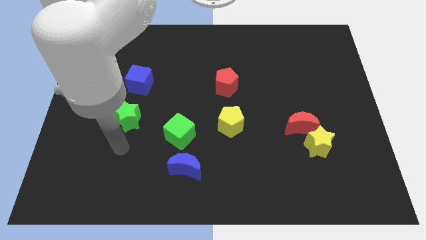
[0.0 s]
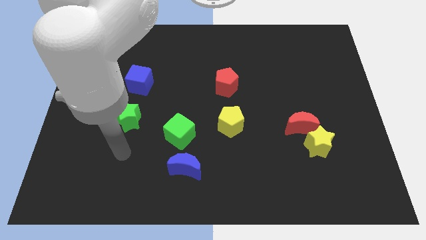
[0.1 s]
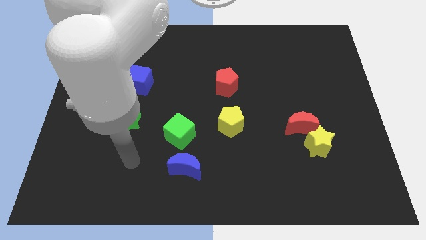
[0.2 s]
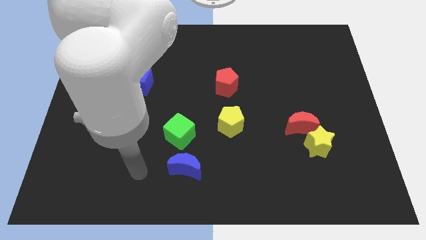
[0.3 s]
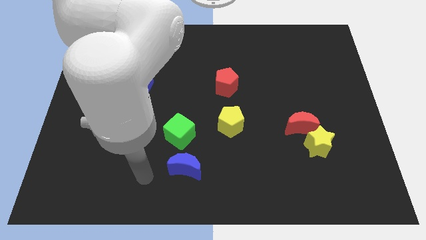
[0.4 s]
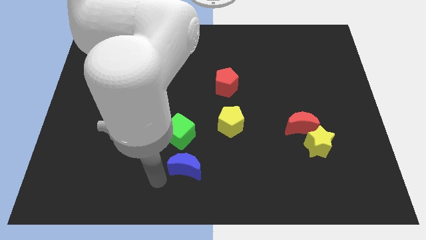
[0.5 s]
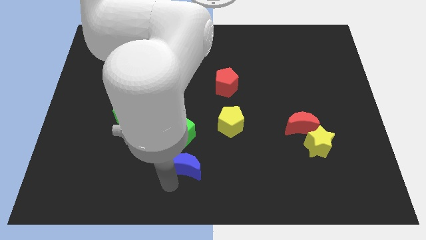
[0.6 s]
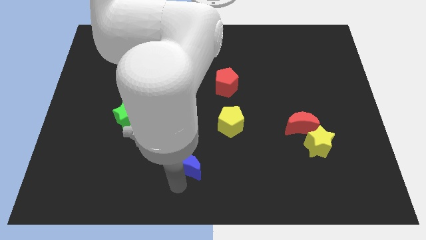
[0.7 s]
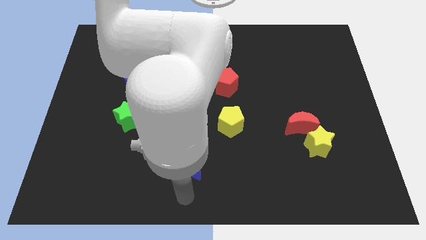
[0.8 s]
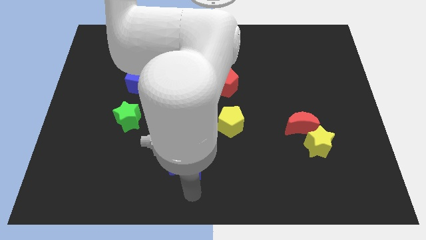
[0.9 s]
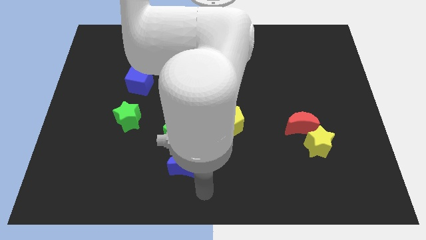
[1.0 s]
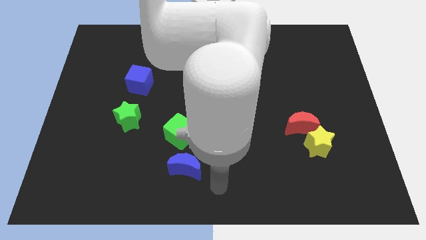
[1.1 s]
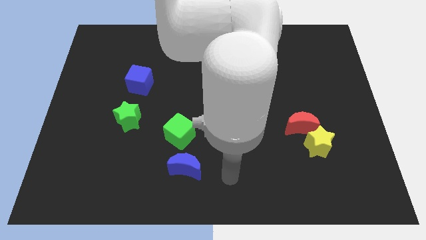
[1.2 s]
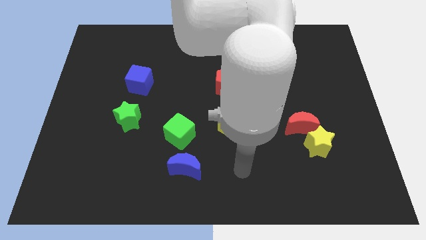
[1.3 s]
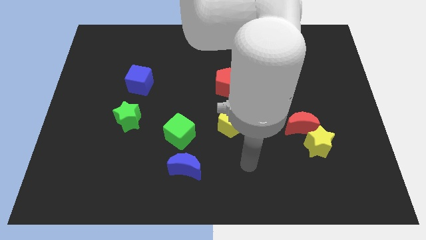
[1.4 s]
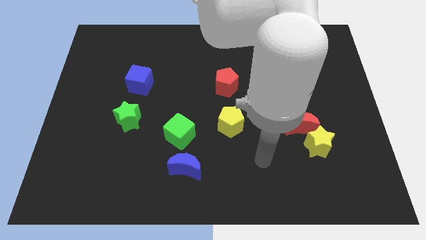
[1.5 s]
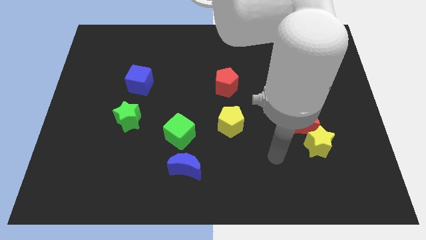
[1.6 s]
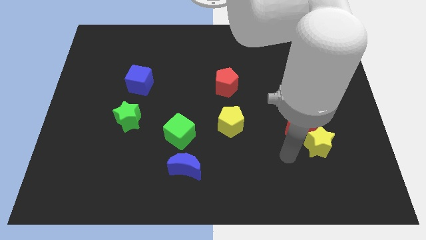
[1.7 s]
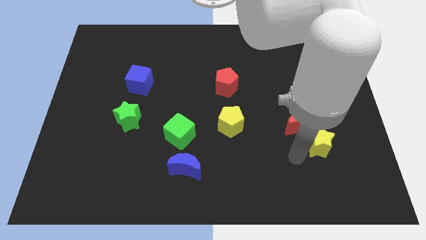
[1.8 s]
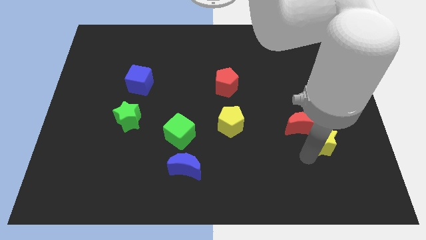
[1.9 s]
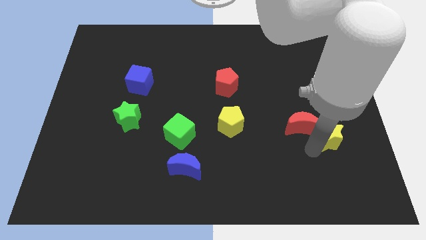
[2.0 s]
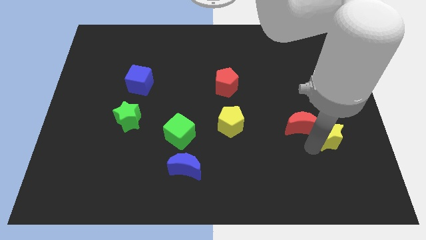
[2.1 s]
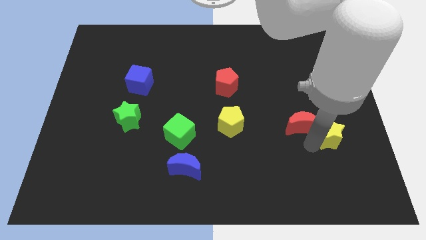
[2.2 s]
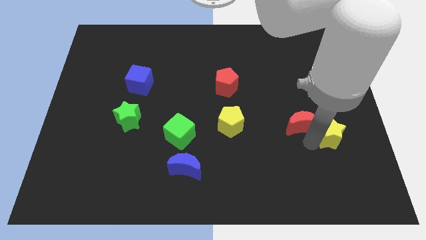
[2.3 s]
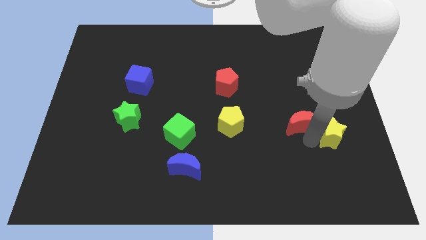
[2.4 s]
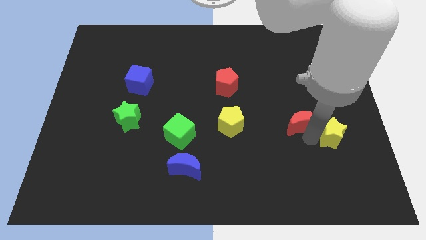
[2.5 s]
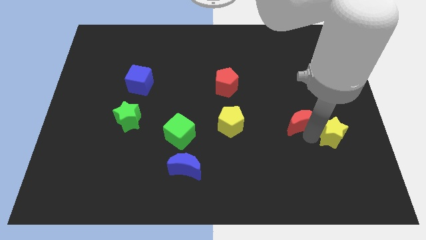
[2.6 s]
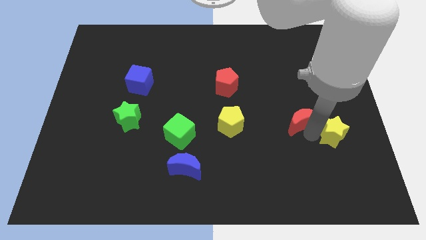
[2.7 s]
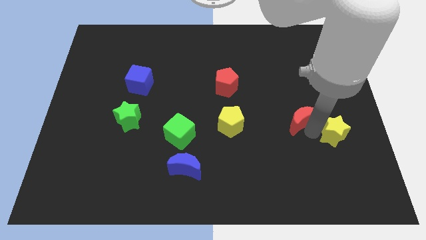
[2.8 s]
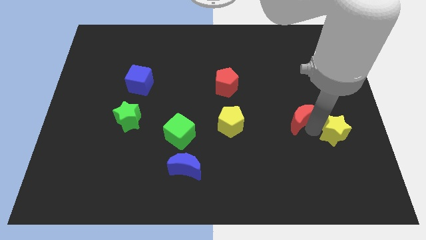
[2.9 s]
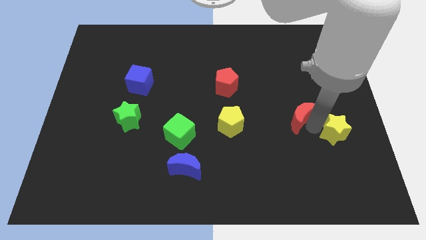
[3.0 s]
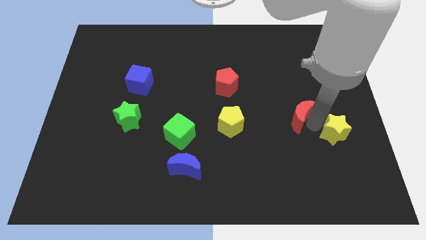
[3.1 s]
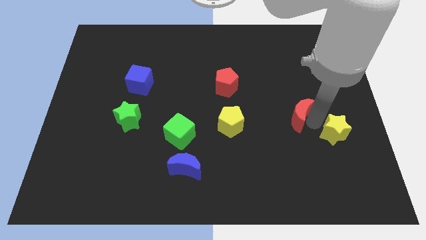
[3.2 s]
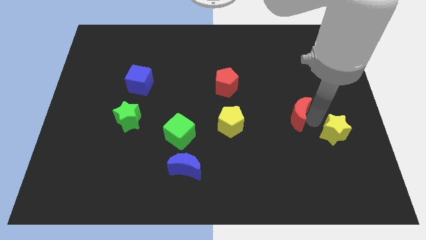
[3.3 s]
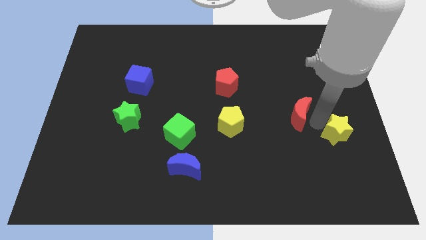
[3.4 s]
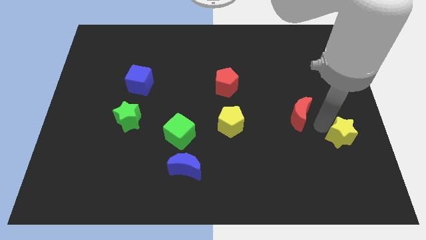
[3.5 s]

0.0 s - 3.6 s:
move the red moon away from the yellow star

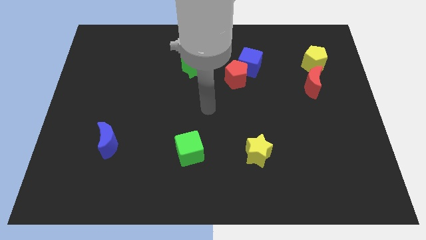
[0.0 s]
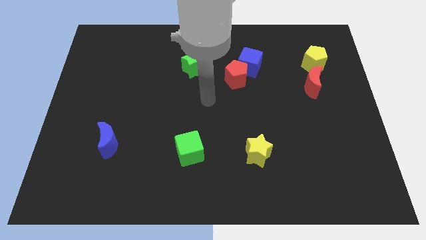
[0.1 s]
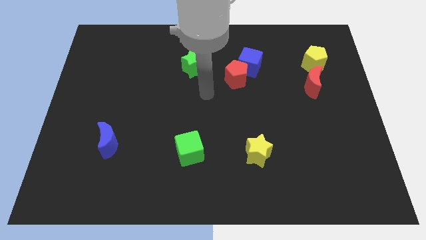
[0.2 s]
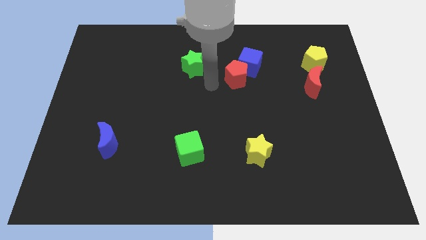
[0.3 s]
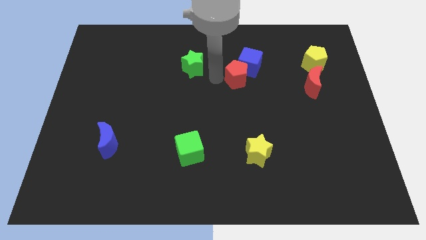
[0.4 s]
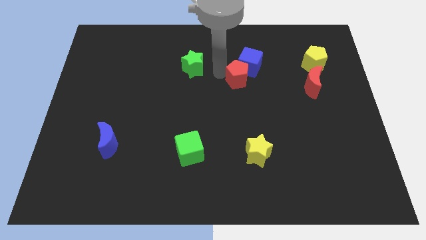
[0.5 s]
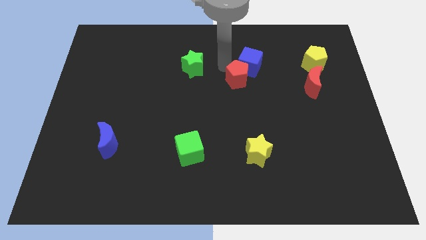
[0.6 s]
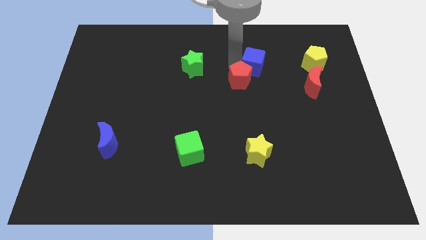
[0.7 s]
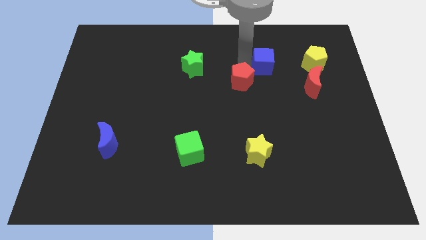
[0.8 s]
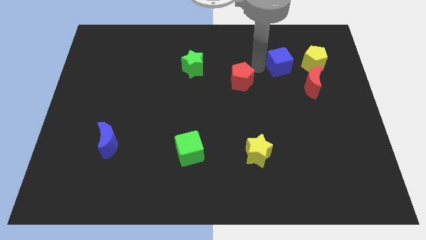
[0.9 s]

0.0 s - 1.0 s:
pull the red pentagon apart from the blue cube

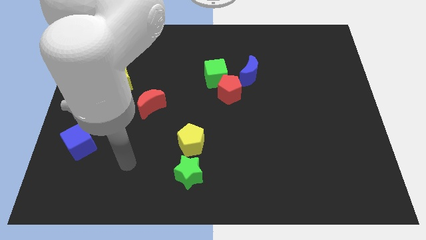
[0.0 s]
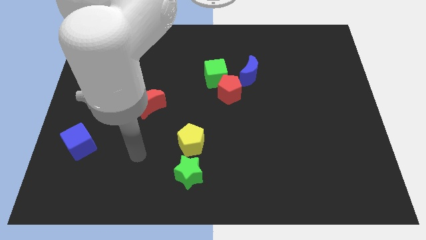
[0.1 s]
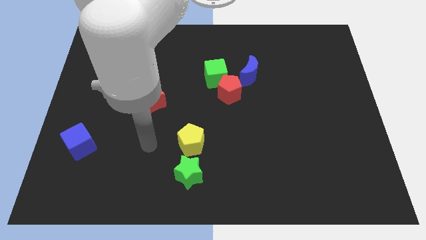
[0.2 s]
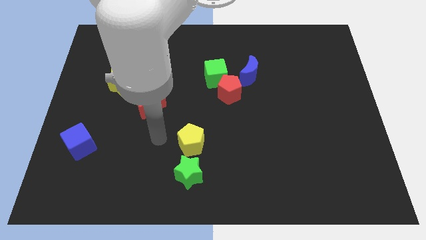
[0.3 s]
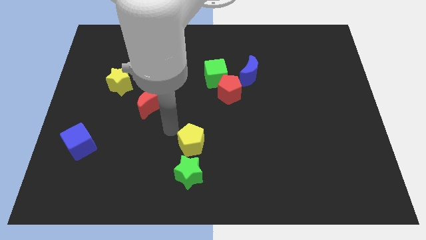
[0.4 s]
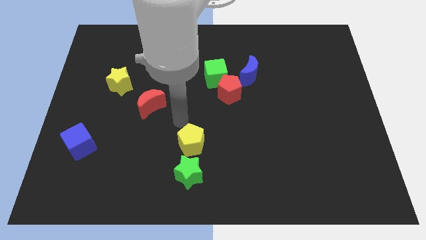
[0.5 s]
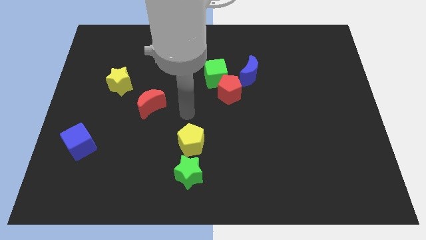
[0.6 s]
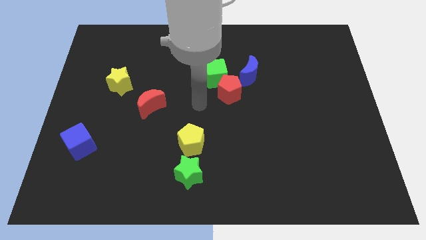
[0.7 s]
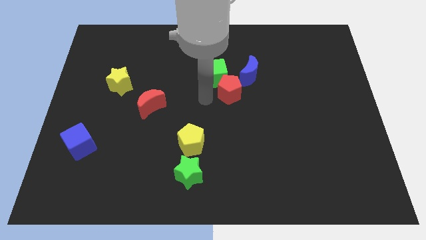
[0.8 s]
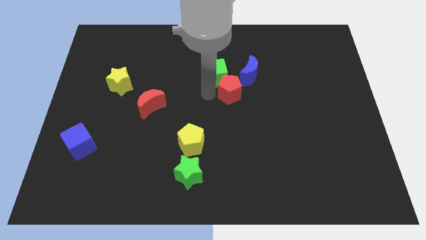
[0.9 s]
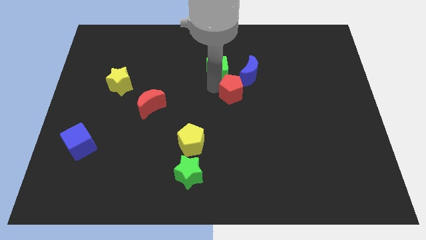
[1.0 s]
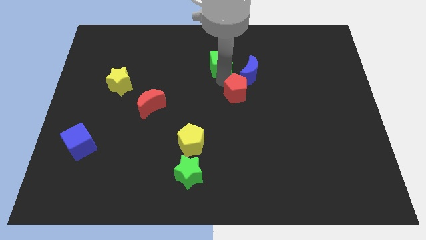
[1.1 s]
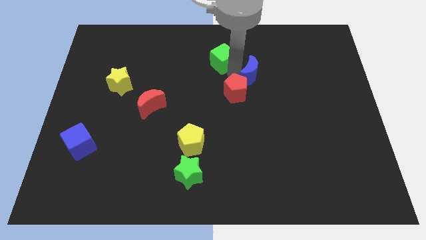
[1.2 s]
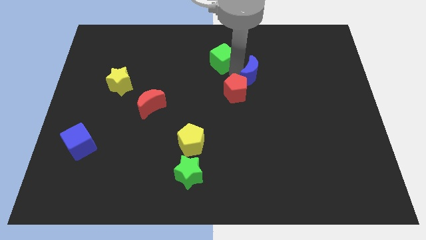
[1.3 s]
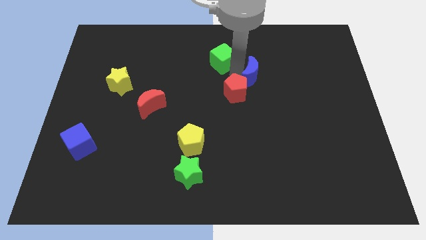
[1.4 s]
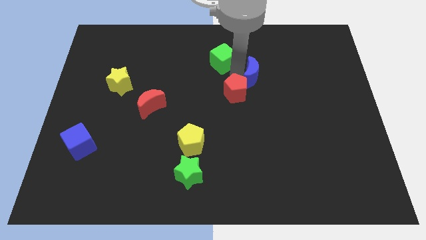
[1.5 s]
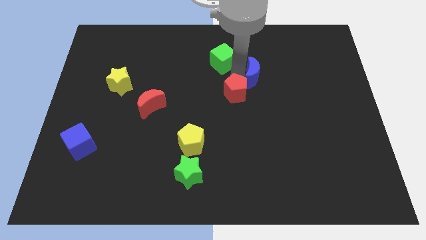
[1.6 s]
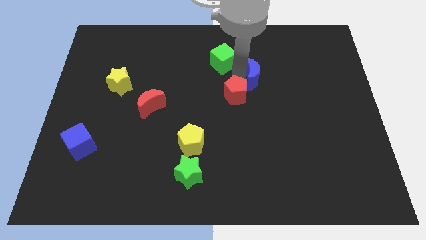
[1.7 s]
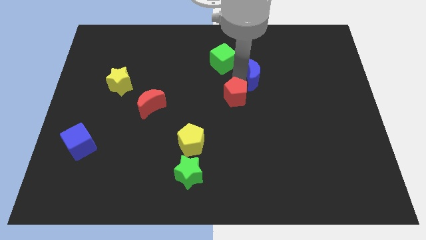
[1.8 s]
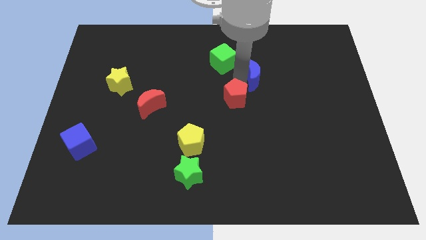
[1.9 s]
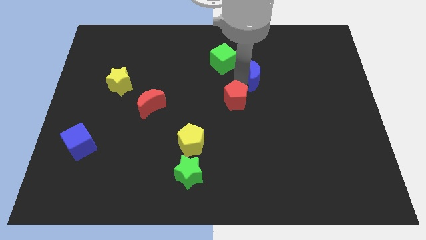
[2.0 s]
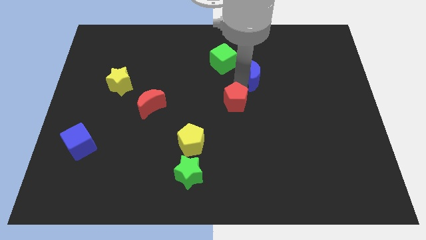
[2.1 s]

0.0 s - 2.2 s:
move the red pentagon away from the green cube and blue moon

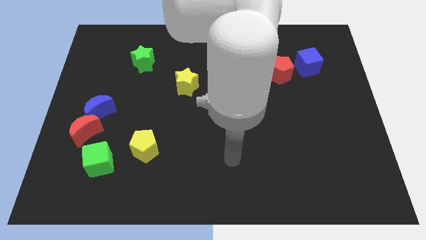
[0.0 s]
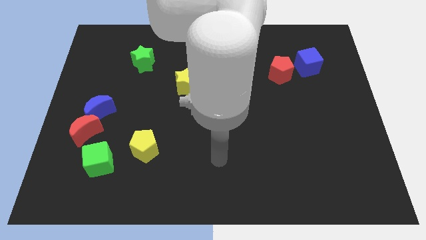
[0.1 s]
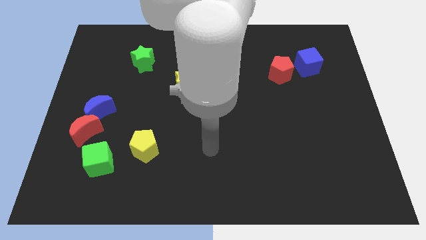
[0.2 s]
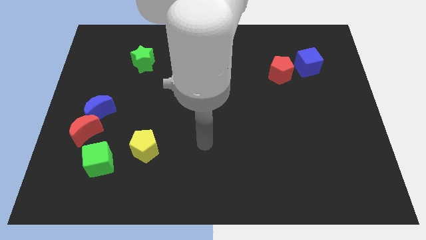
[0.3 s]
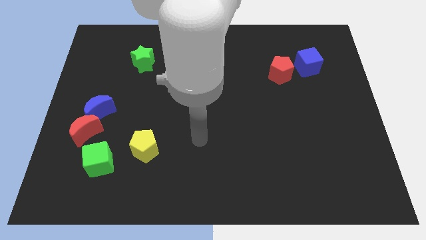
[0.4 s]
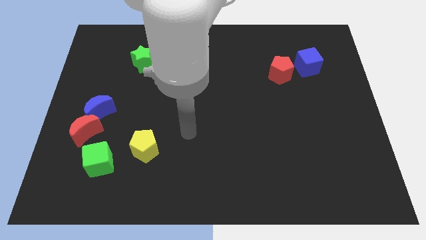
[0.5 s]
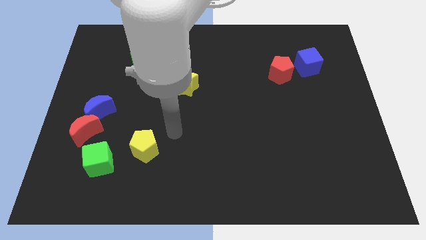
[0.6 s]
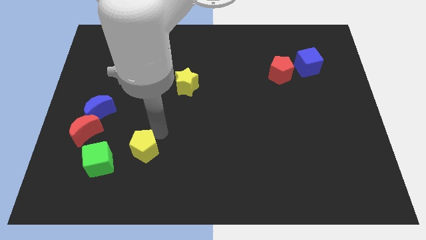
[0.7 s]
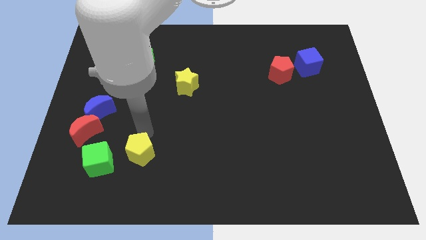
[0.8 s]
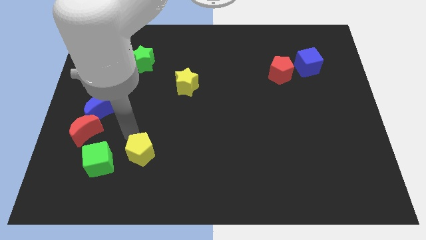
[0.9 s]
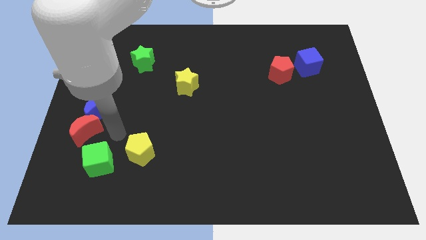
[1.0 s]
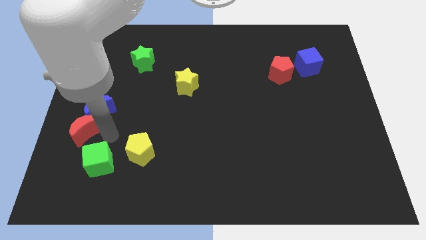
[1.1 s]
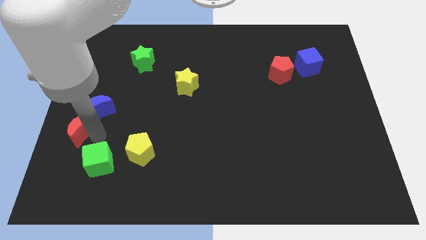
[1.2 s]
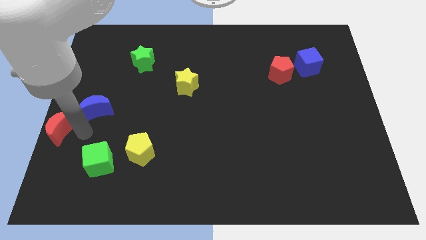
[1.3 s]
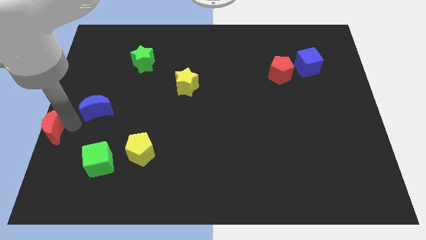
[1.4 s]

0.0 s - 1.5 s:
separate the blue moon from the red moon

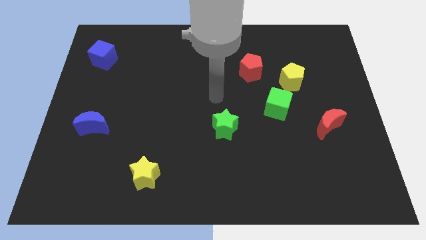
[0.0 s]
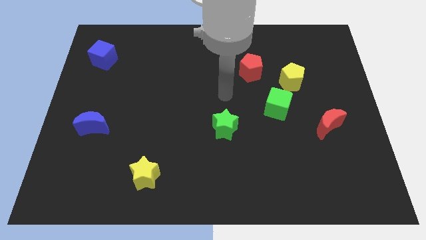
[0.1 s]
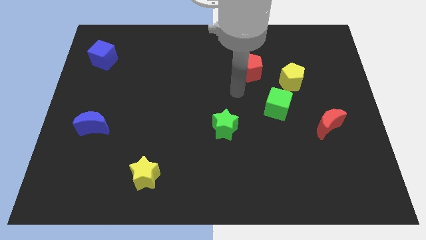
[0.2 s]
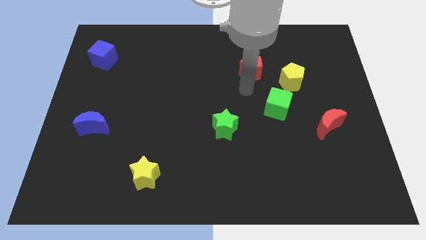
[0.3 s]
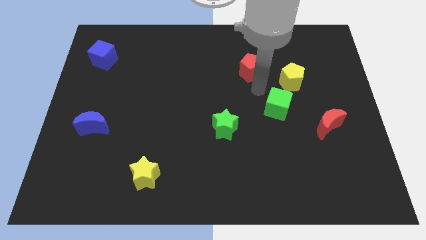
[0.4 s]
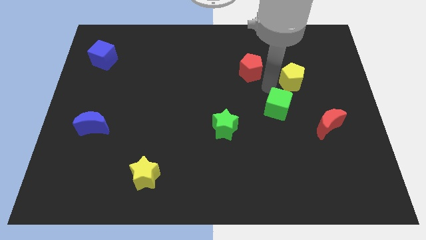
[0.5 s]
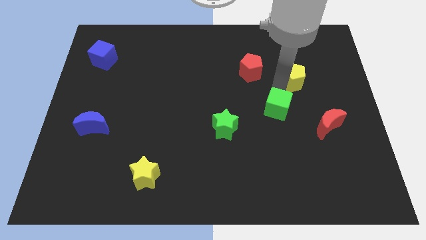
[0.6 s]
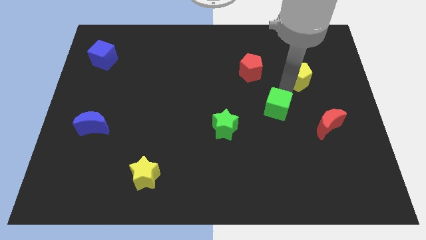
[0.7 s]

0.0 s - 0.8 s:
separate the green cube from the yellow pentagon

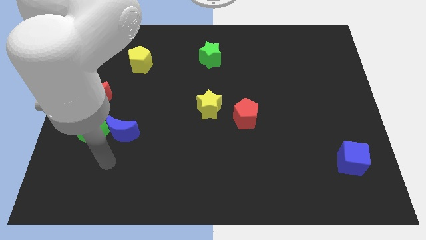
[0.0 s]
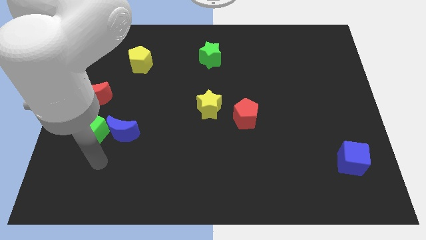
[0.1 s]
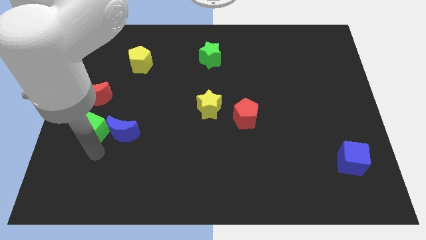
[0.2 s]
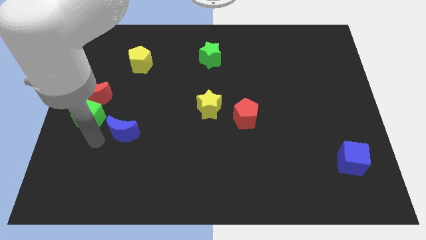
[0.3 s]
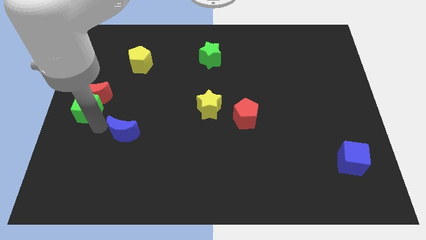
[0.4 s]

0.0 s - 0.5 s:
pull the blue moon apart from the green cube
